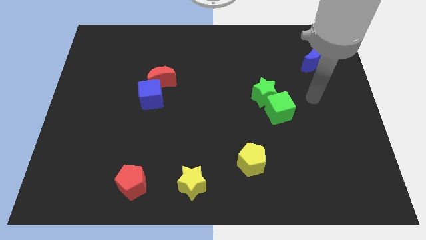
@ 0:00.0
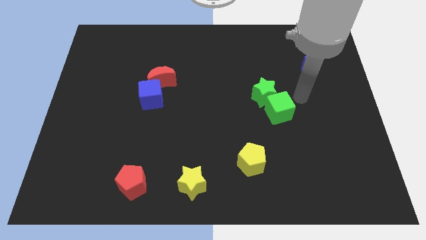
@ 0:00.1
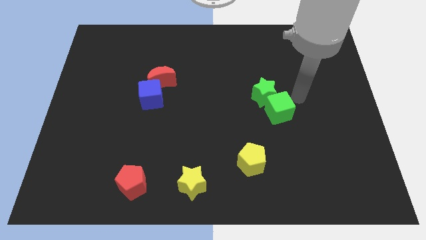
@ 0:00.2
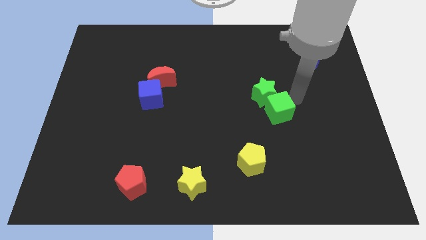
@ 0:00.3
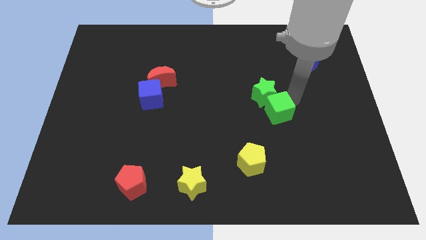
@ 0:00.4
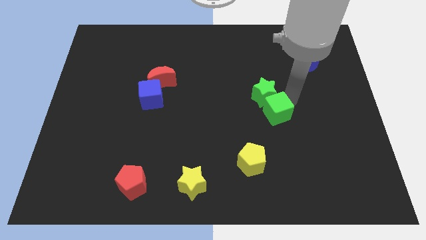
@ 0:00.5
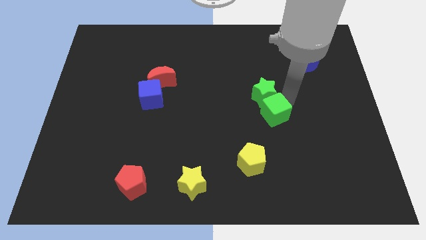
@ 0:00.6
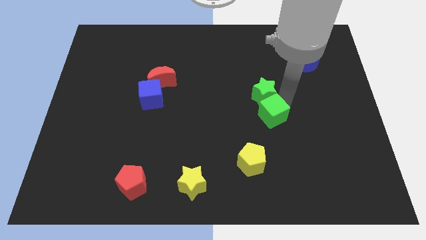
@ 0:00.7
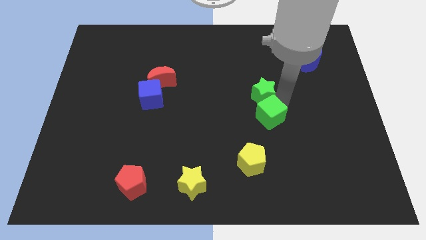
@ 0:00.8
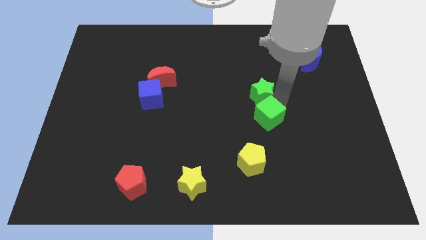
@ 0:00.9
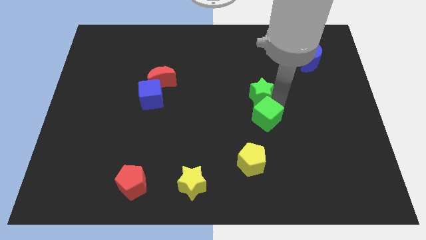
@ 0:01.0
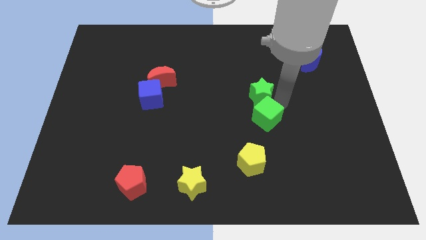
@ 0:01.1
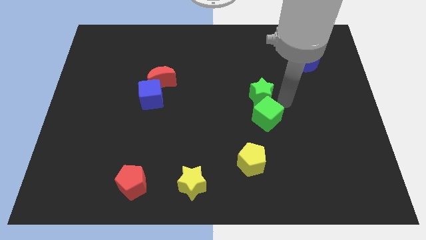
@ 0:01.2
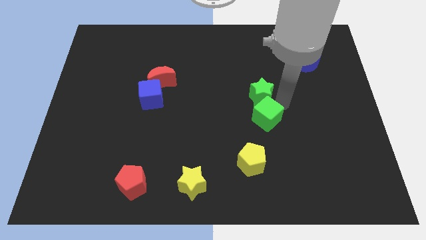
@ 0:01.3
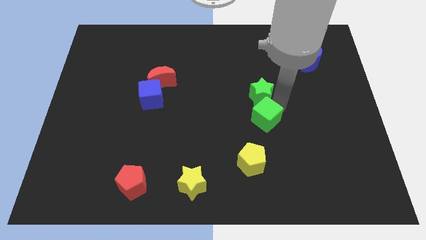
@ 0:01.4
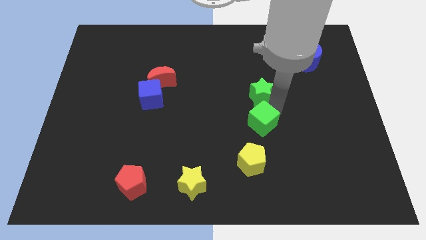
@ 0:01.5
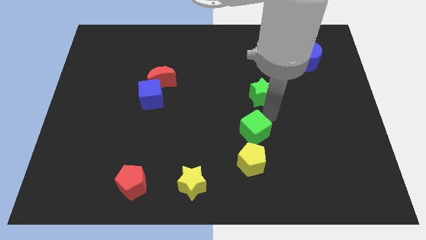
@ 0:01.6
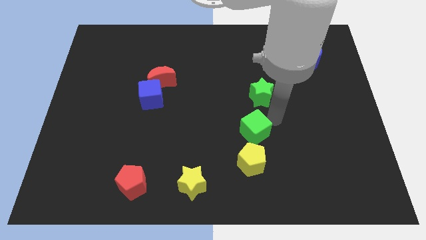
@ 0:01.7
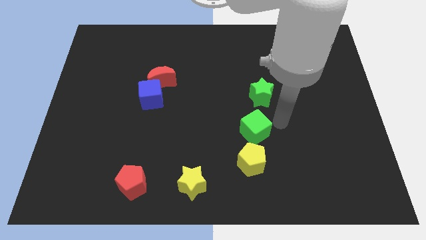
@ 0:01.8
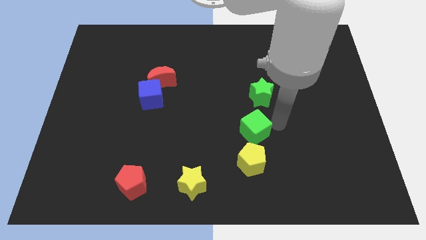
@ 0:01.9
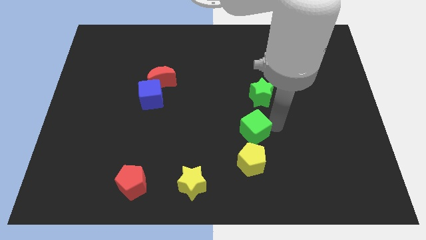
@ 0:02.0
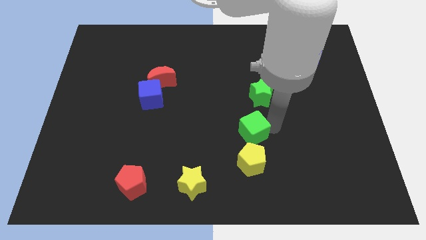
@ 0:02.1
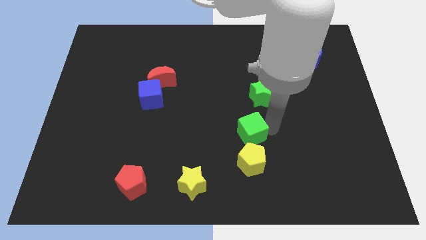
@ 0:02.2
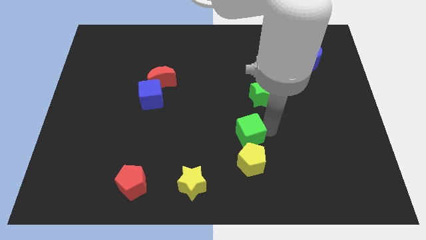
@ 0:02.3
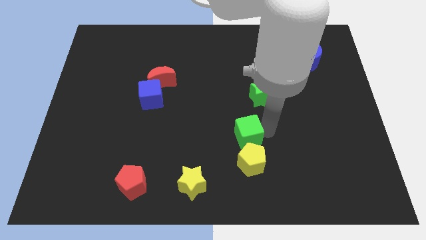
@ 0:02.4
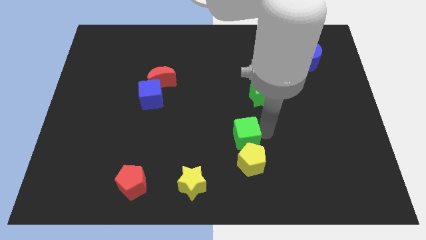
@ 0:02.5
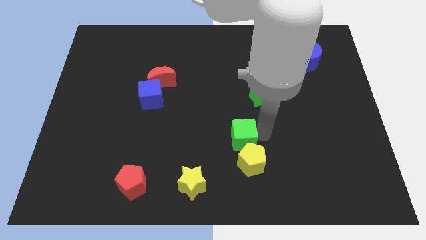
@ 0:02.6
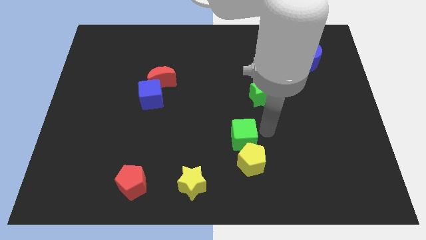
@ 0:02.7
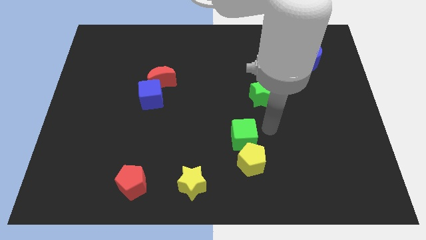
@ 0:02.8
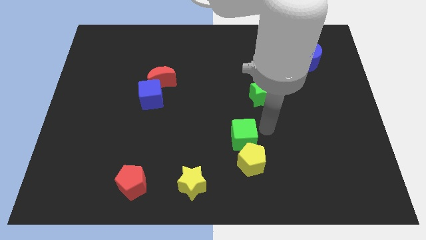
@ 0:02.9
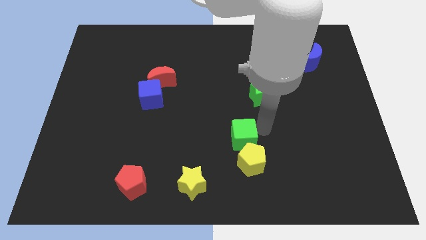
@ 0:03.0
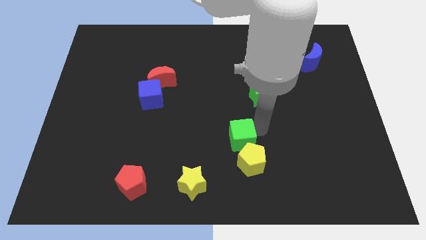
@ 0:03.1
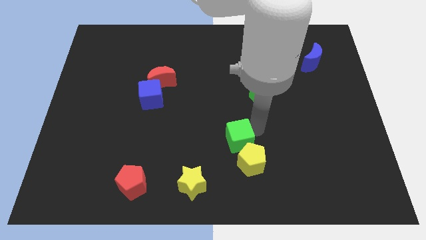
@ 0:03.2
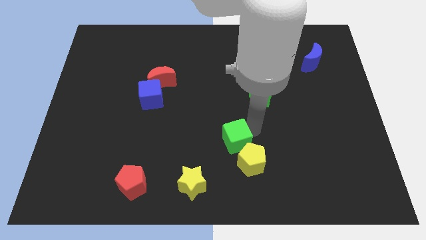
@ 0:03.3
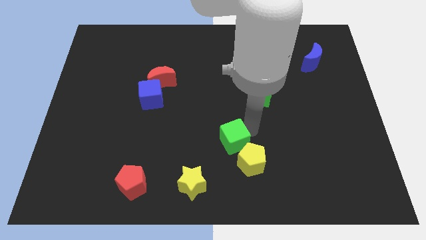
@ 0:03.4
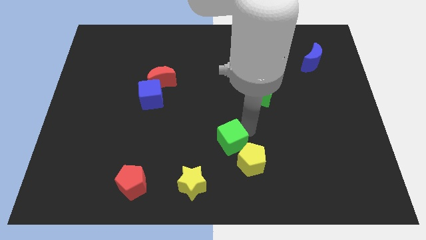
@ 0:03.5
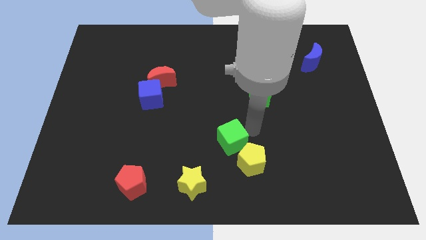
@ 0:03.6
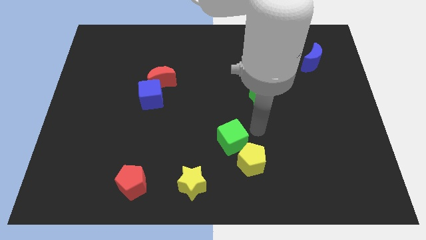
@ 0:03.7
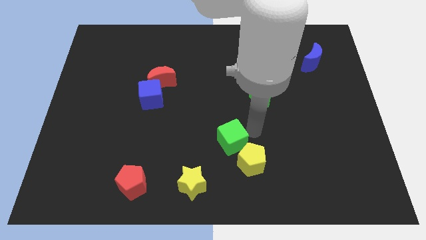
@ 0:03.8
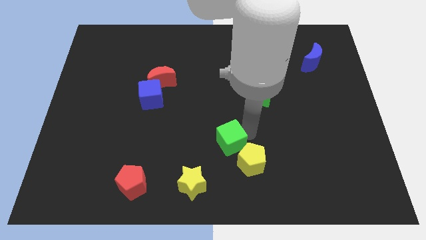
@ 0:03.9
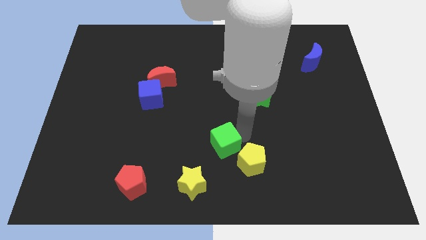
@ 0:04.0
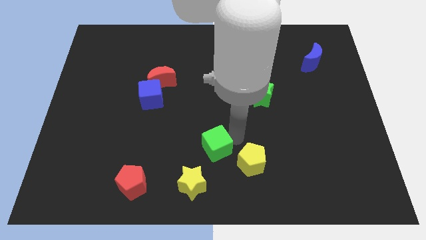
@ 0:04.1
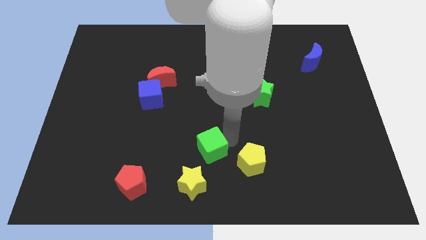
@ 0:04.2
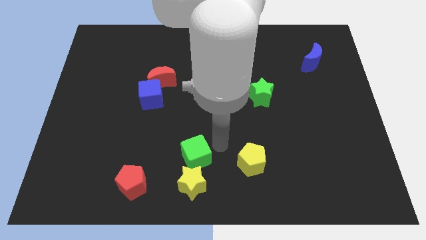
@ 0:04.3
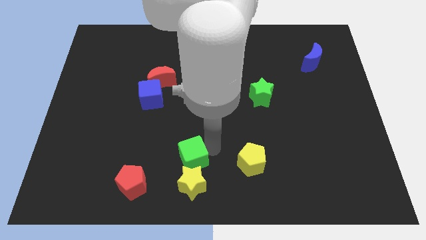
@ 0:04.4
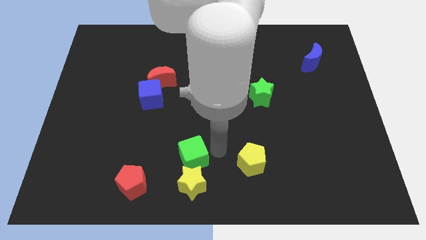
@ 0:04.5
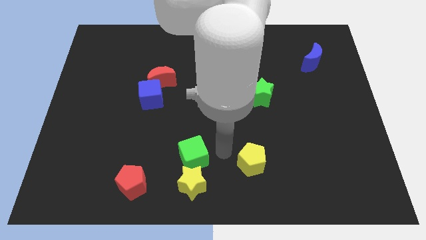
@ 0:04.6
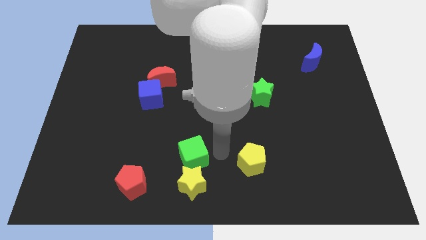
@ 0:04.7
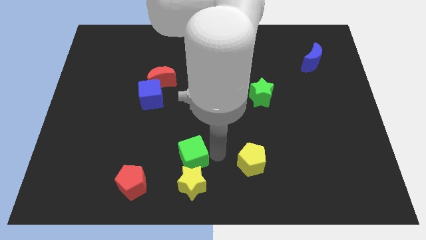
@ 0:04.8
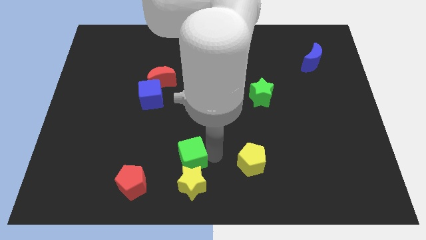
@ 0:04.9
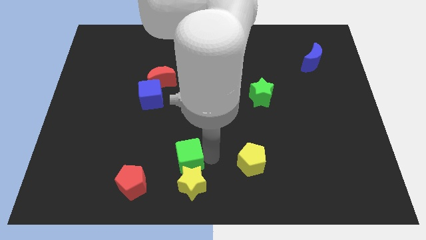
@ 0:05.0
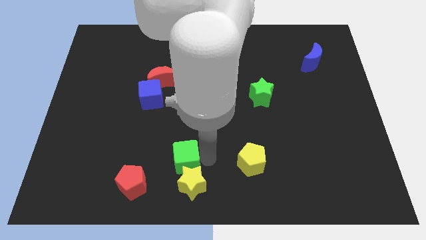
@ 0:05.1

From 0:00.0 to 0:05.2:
slide the green cube to the top right side of the red pentagon

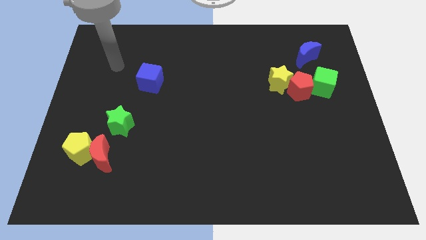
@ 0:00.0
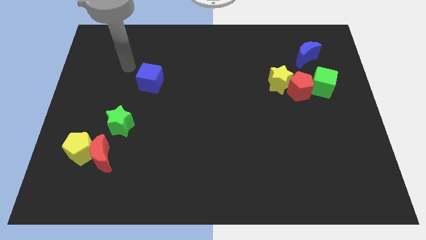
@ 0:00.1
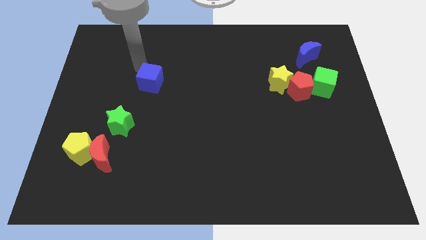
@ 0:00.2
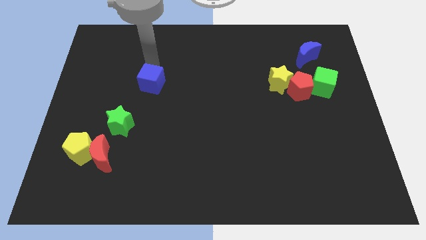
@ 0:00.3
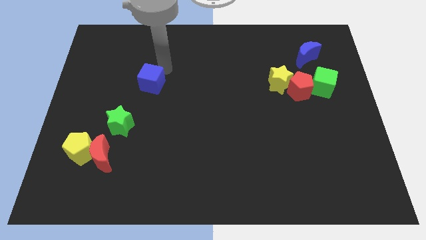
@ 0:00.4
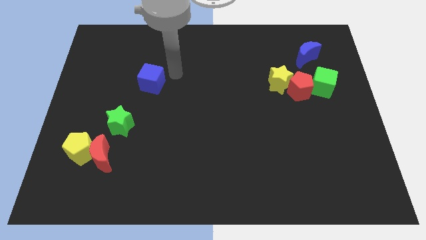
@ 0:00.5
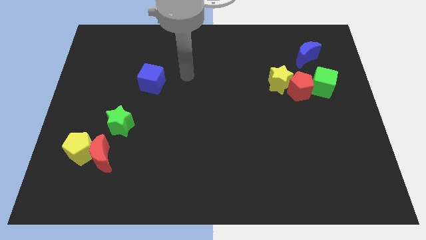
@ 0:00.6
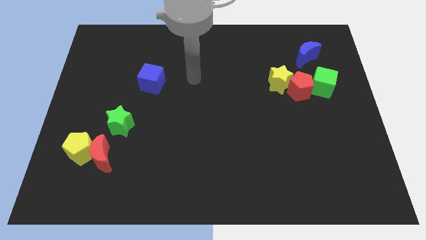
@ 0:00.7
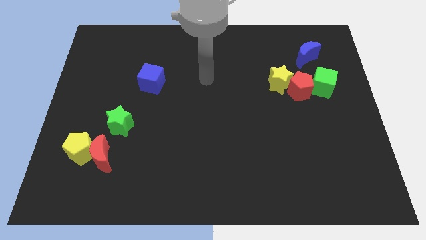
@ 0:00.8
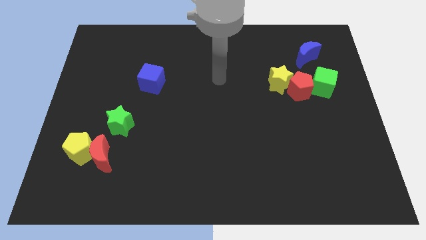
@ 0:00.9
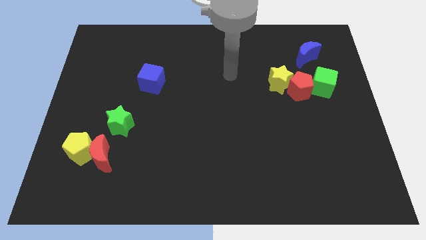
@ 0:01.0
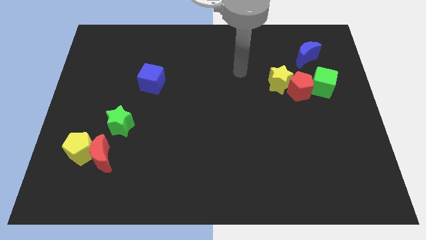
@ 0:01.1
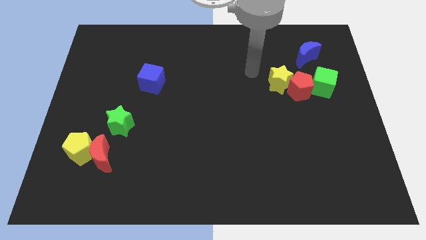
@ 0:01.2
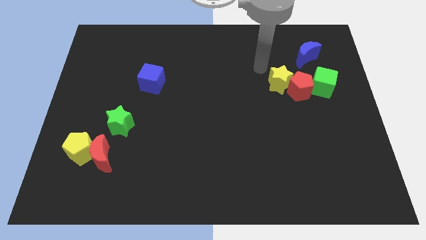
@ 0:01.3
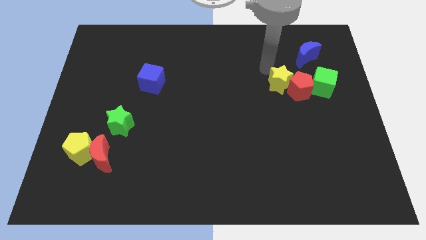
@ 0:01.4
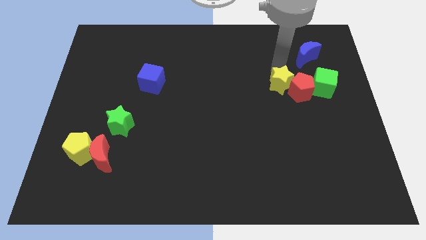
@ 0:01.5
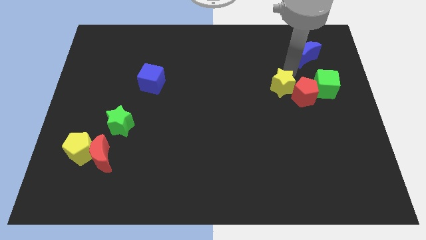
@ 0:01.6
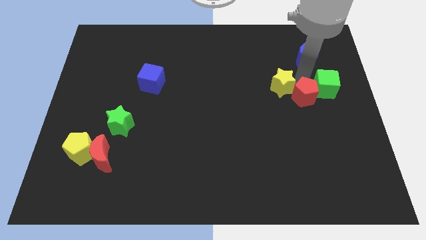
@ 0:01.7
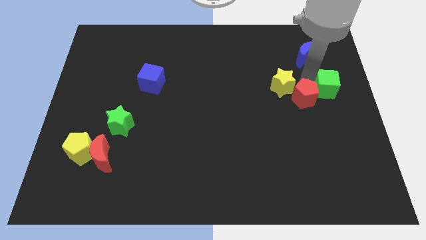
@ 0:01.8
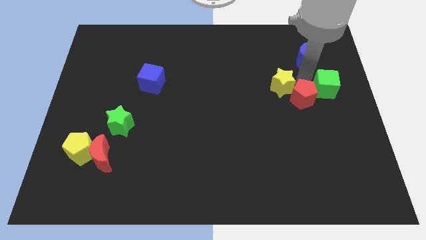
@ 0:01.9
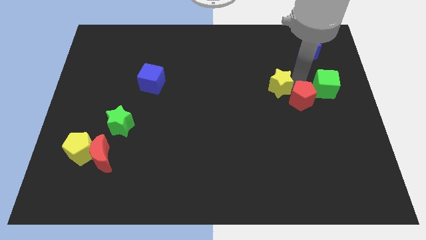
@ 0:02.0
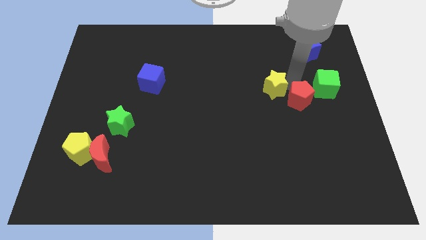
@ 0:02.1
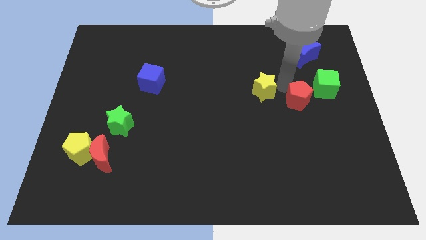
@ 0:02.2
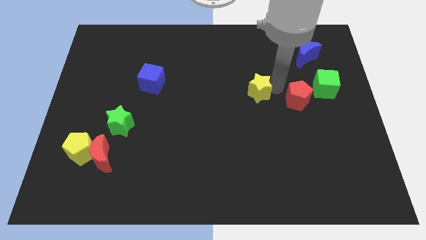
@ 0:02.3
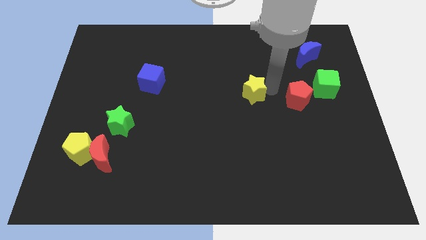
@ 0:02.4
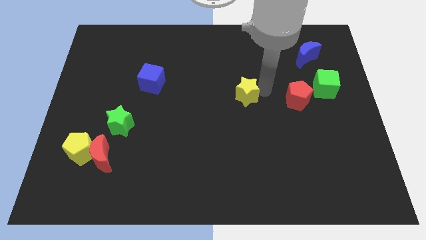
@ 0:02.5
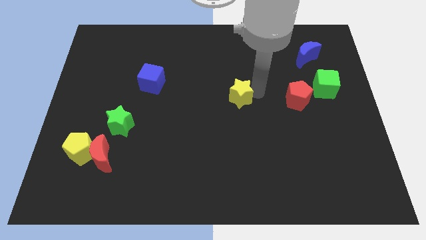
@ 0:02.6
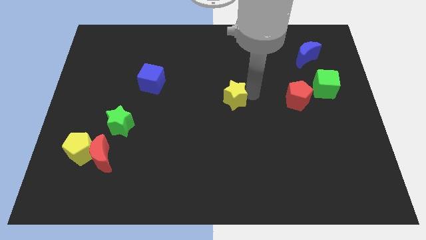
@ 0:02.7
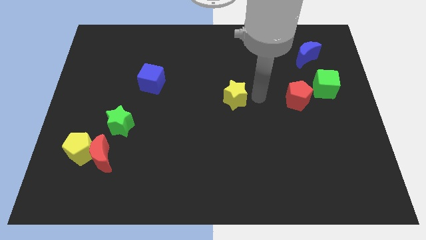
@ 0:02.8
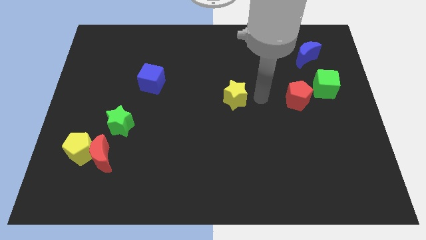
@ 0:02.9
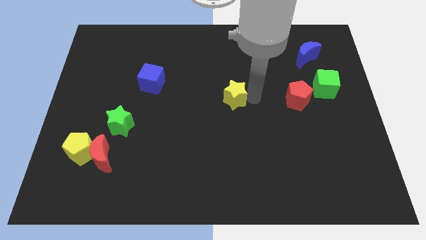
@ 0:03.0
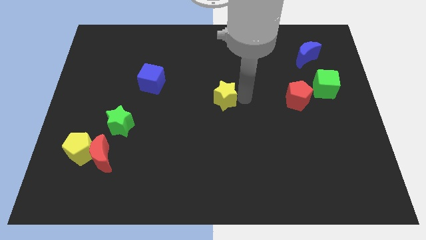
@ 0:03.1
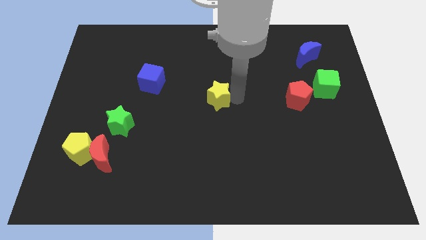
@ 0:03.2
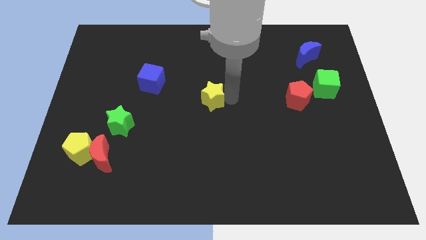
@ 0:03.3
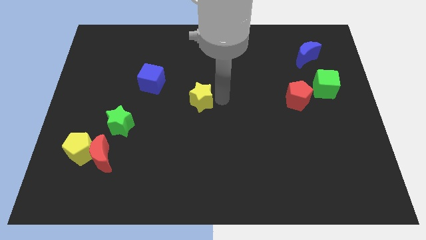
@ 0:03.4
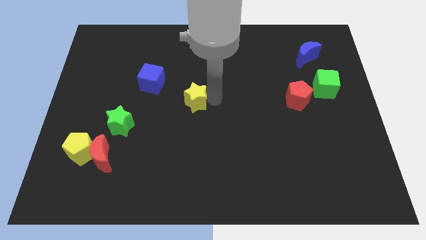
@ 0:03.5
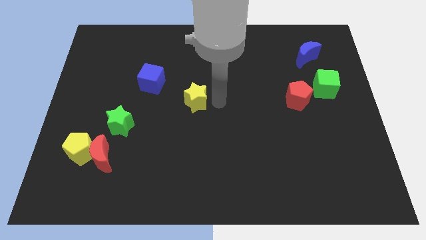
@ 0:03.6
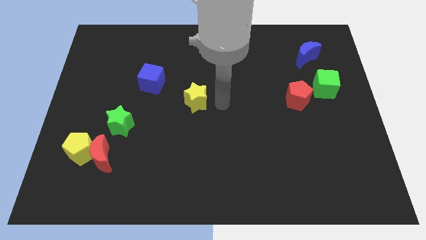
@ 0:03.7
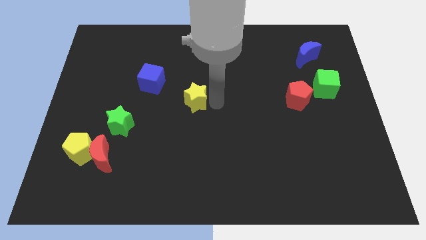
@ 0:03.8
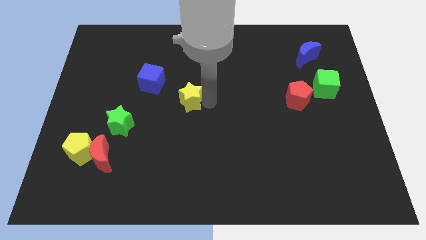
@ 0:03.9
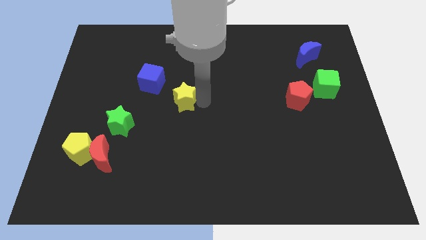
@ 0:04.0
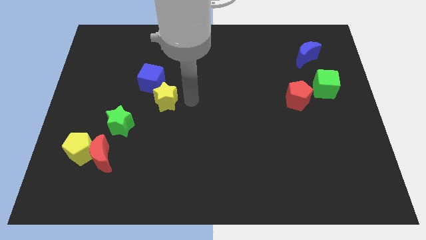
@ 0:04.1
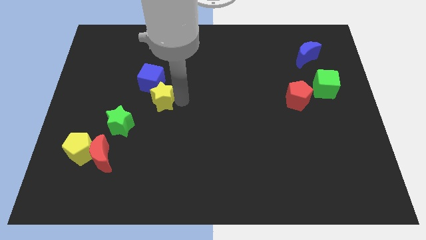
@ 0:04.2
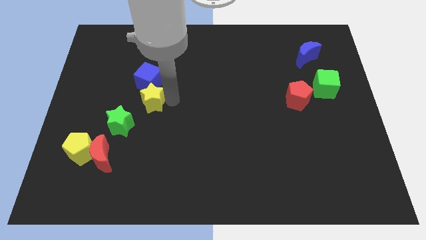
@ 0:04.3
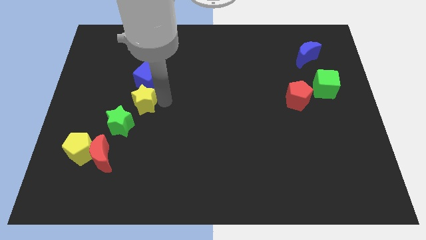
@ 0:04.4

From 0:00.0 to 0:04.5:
push the yellow star to the bottom left side of the blue cube
